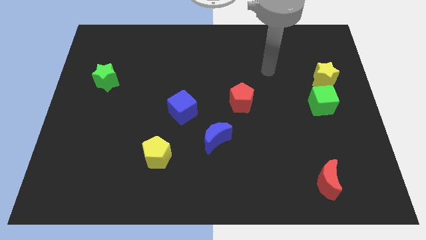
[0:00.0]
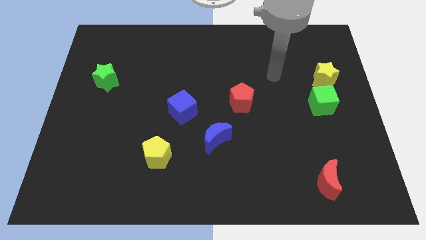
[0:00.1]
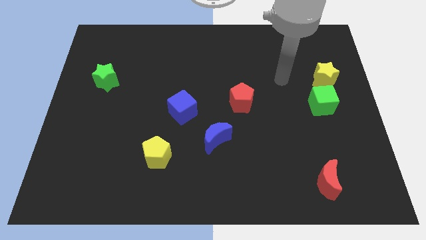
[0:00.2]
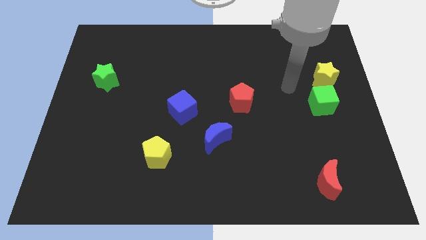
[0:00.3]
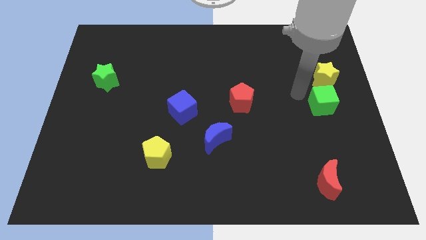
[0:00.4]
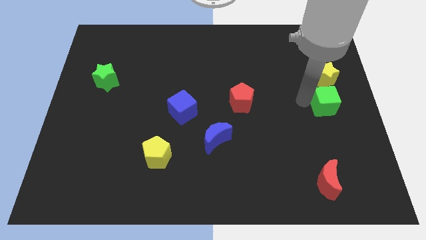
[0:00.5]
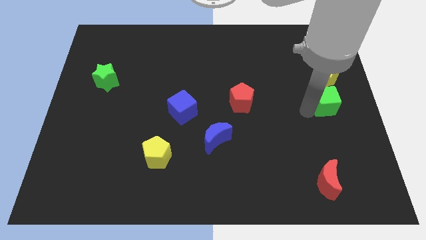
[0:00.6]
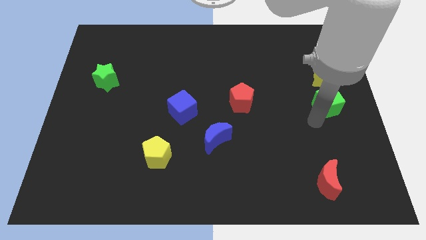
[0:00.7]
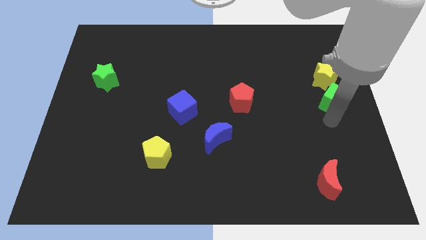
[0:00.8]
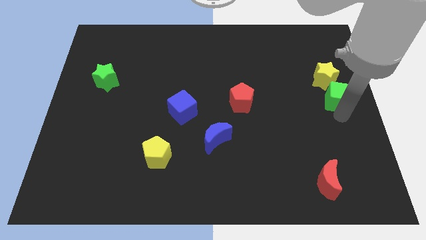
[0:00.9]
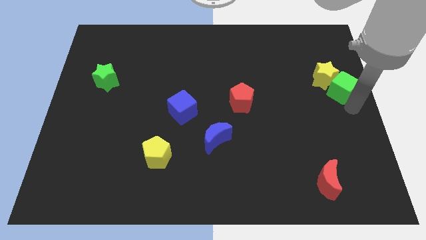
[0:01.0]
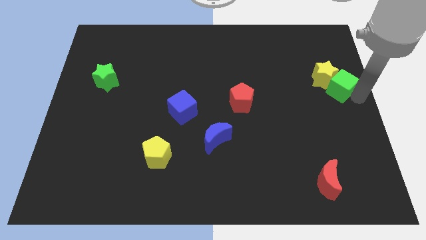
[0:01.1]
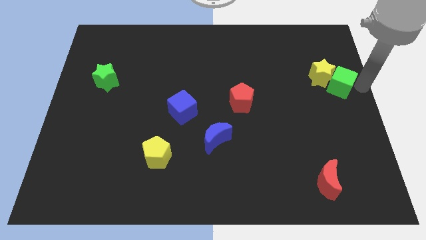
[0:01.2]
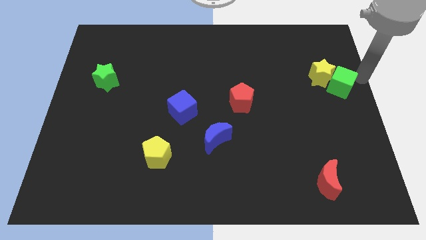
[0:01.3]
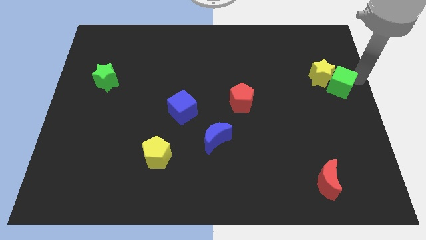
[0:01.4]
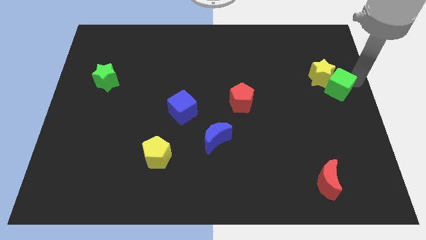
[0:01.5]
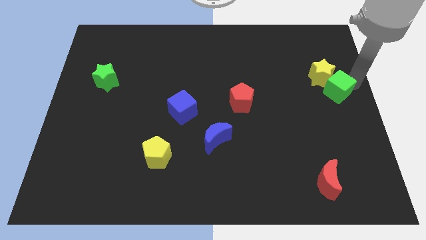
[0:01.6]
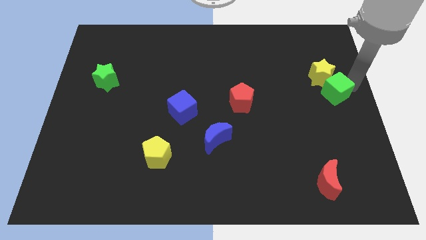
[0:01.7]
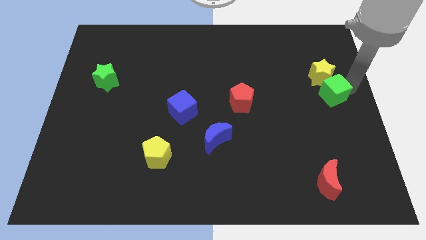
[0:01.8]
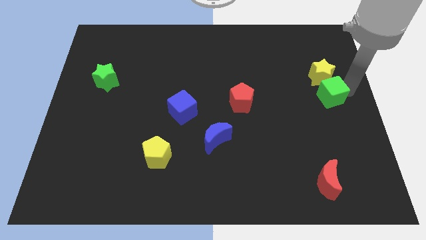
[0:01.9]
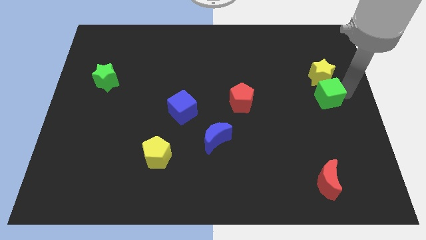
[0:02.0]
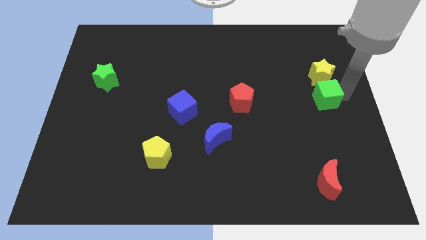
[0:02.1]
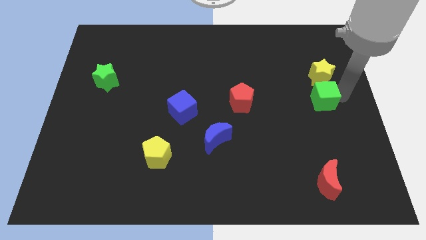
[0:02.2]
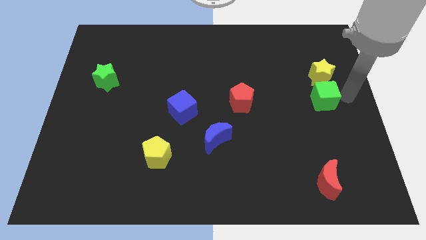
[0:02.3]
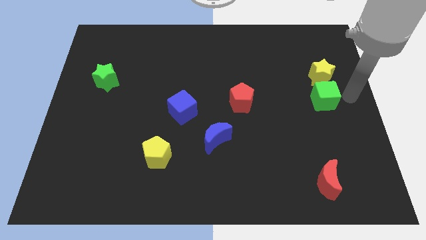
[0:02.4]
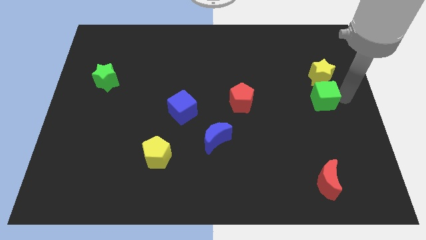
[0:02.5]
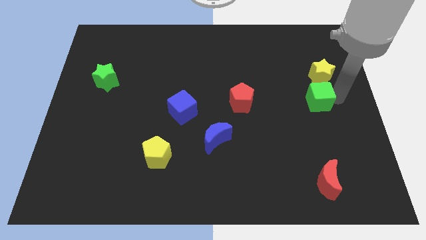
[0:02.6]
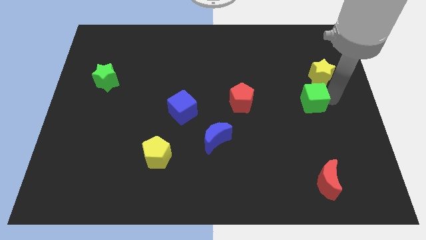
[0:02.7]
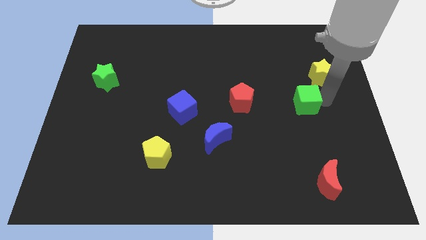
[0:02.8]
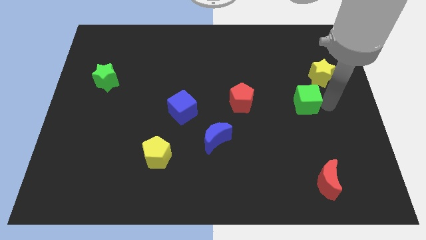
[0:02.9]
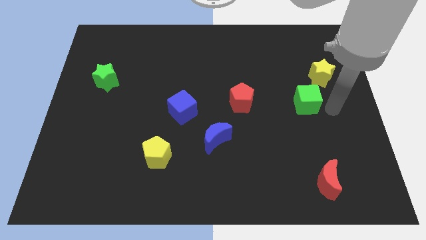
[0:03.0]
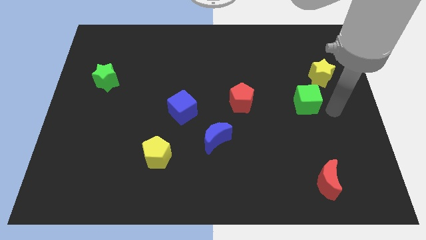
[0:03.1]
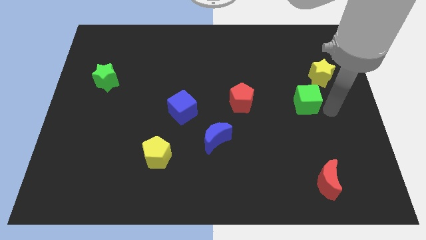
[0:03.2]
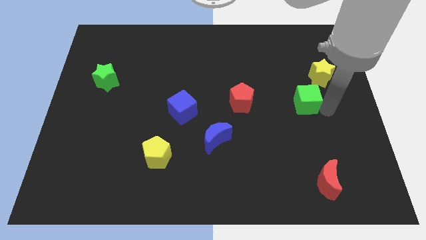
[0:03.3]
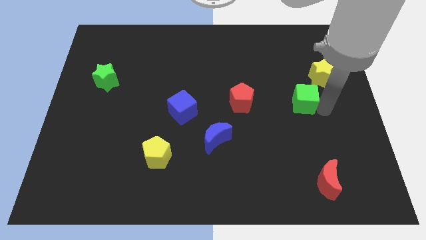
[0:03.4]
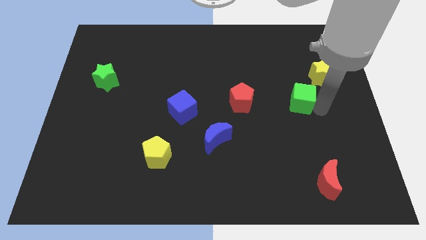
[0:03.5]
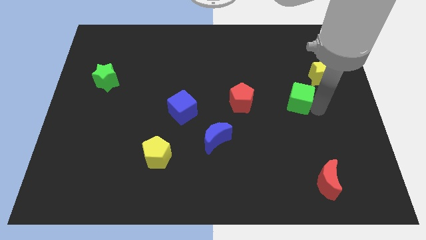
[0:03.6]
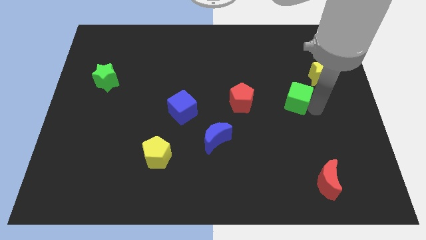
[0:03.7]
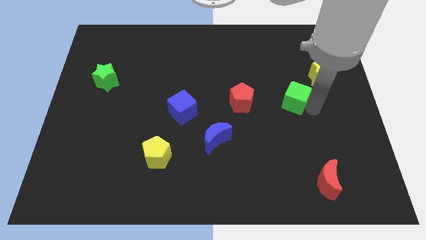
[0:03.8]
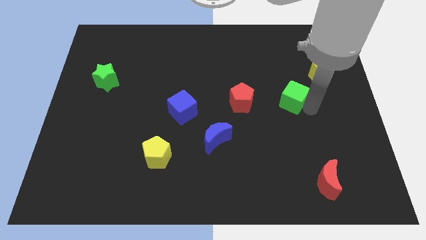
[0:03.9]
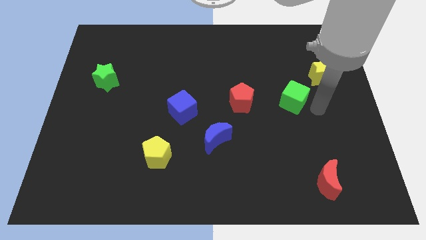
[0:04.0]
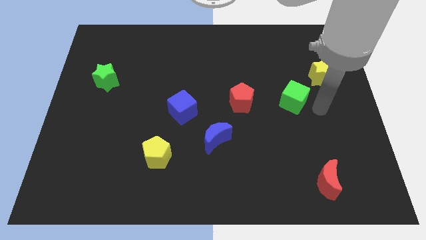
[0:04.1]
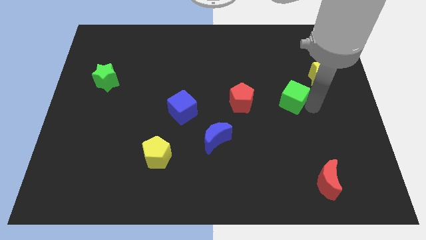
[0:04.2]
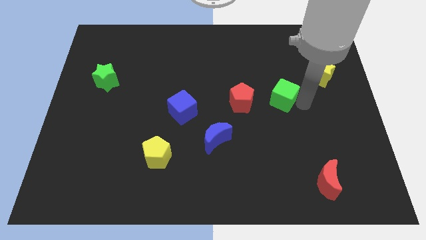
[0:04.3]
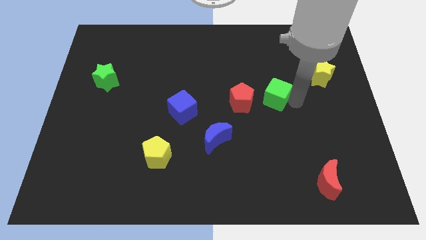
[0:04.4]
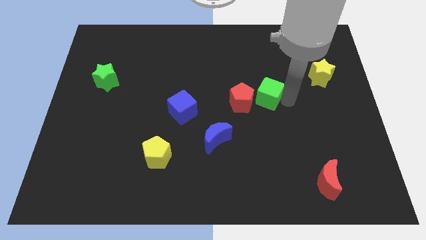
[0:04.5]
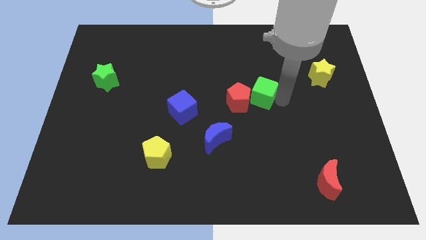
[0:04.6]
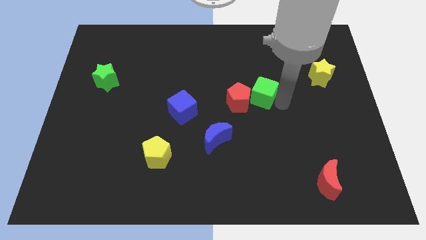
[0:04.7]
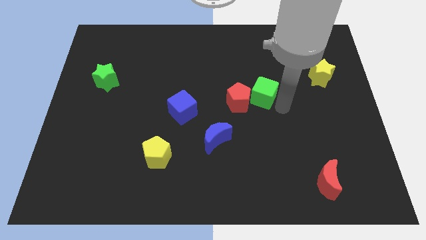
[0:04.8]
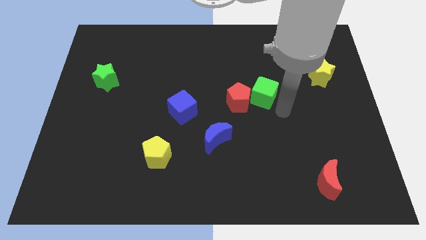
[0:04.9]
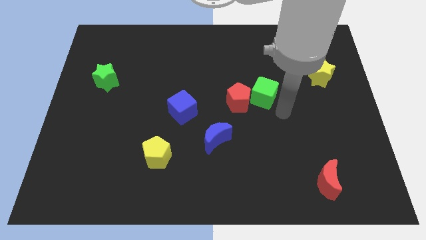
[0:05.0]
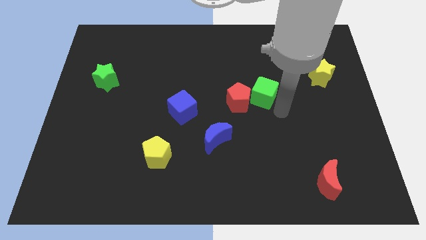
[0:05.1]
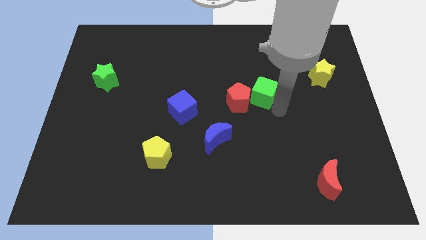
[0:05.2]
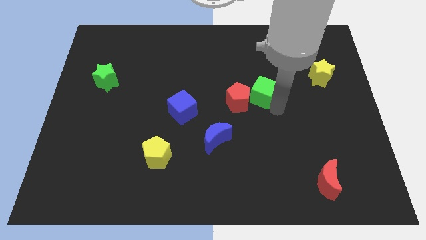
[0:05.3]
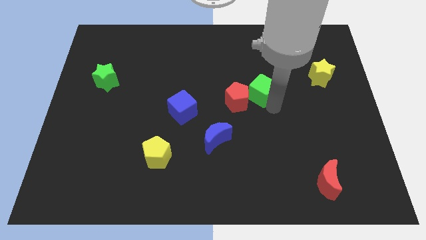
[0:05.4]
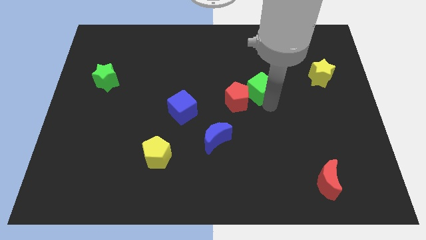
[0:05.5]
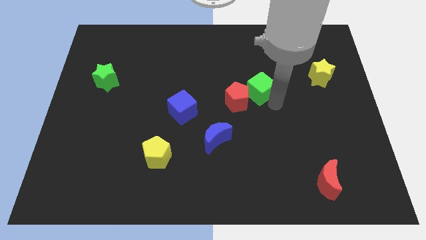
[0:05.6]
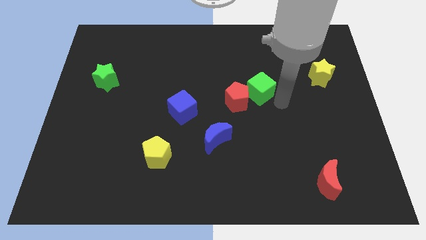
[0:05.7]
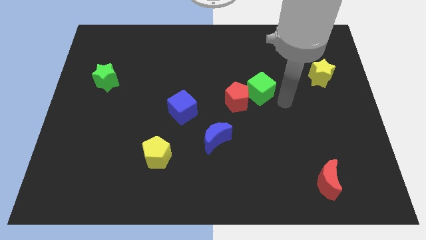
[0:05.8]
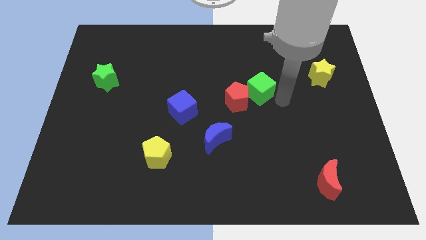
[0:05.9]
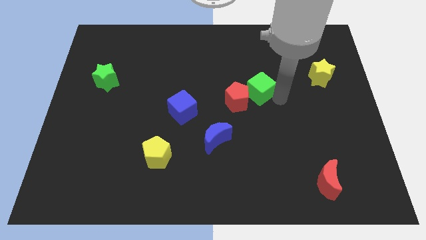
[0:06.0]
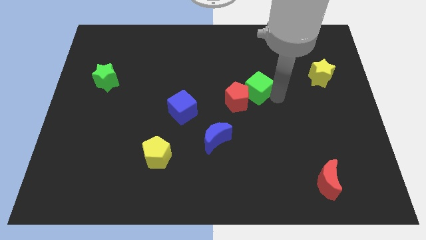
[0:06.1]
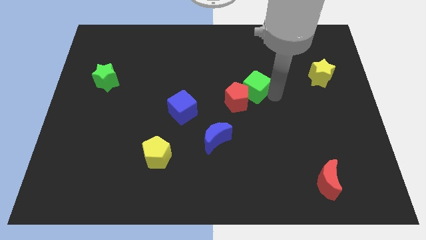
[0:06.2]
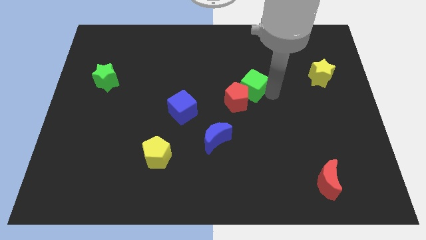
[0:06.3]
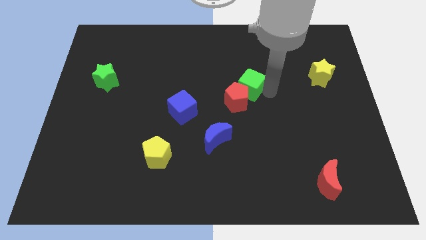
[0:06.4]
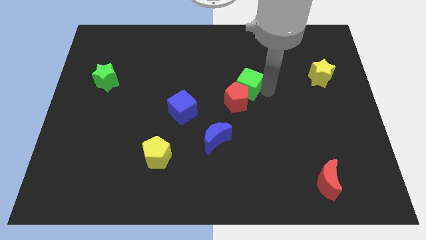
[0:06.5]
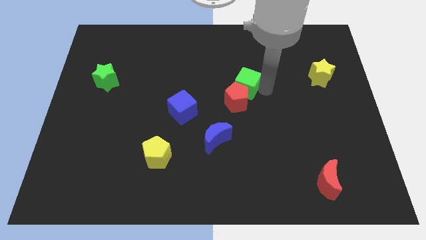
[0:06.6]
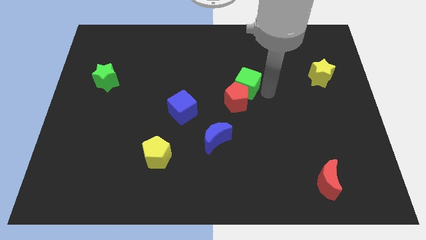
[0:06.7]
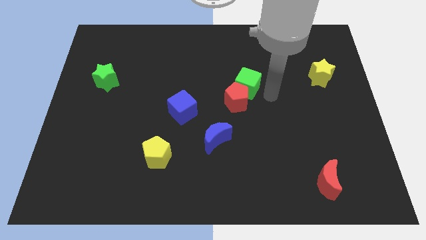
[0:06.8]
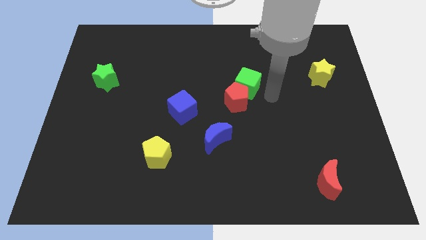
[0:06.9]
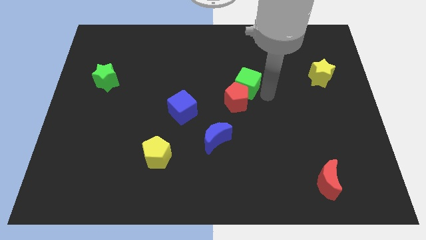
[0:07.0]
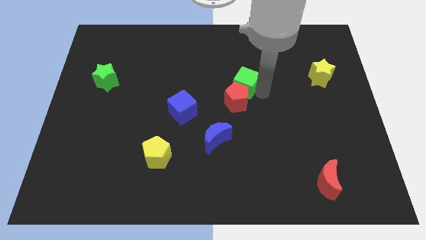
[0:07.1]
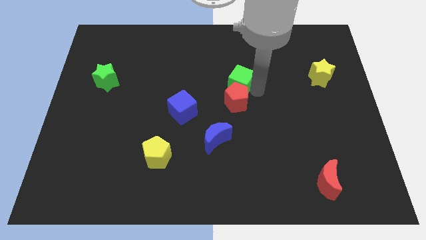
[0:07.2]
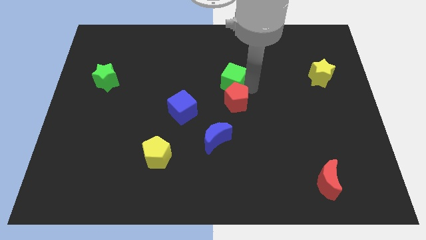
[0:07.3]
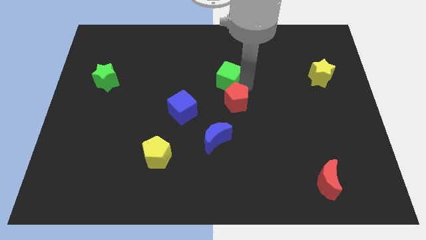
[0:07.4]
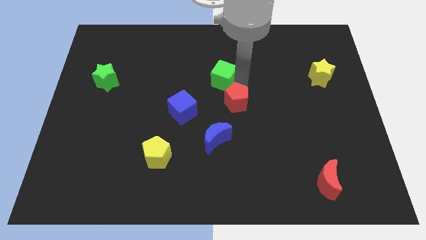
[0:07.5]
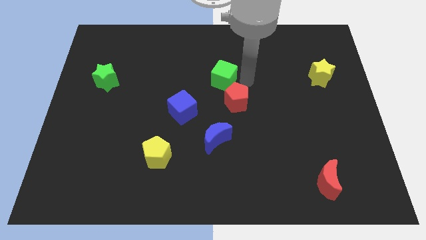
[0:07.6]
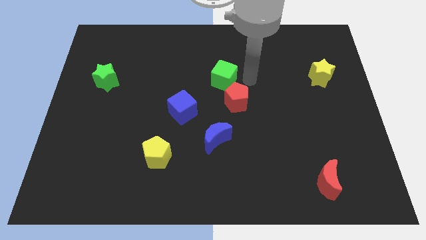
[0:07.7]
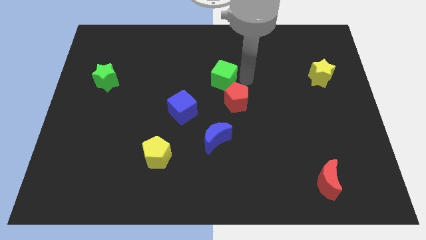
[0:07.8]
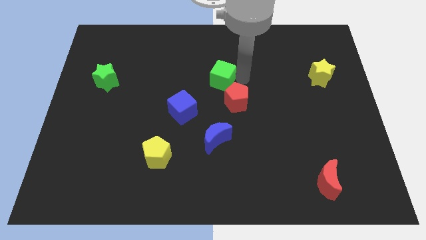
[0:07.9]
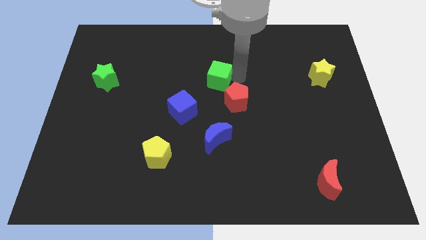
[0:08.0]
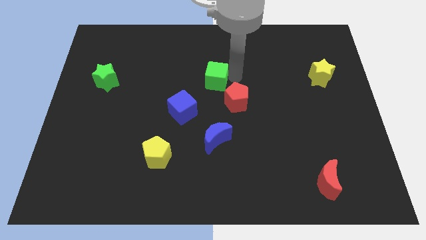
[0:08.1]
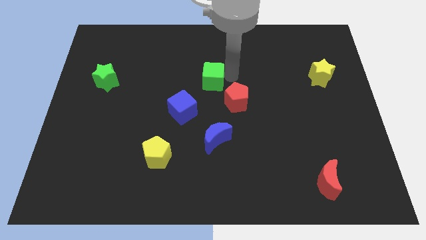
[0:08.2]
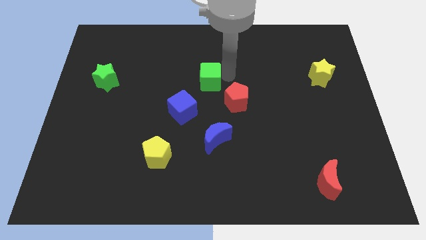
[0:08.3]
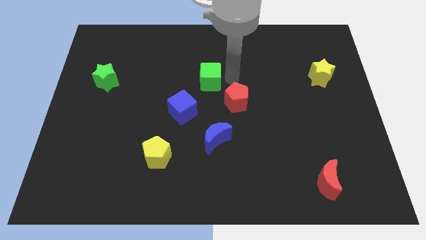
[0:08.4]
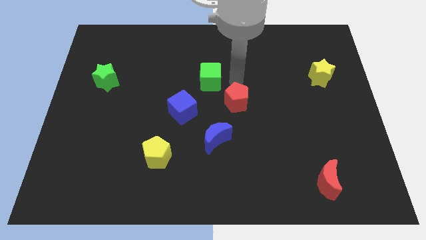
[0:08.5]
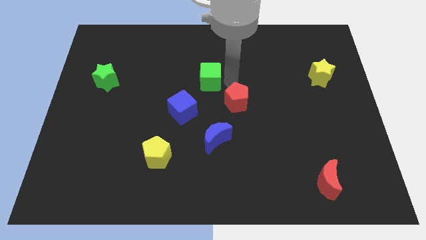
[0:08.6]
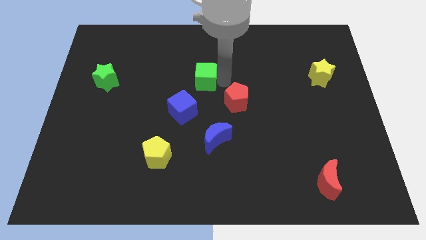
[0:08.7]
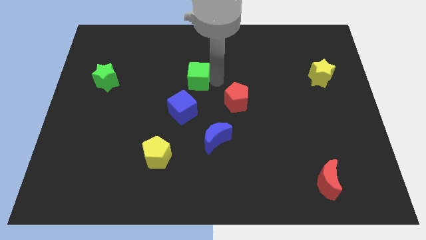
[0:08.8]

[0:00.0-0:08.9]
slide the green cube above the blue cube
